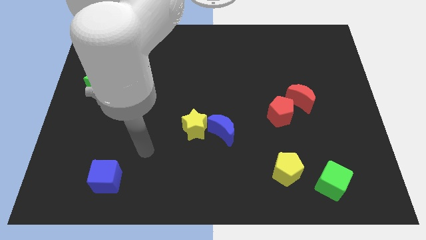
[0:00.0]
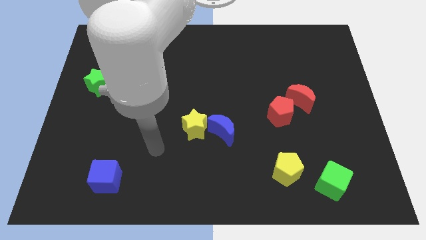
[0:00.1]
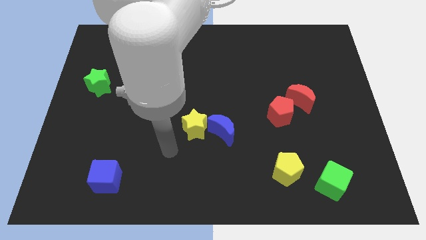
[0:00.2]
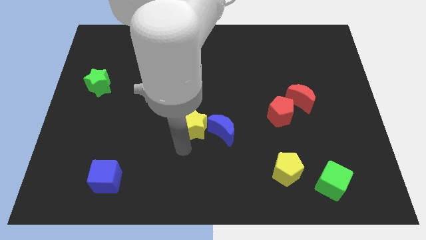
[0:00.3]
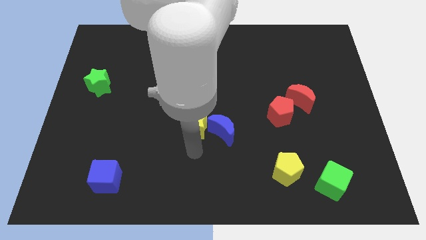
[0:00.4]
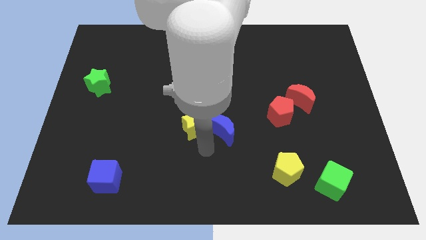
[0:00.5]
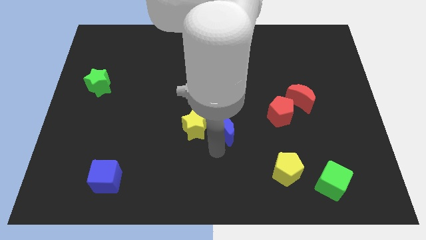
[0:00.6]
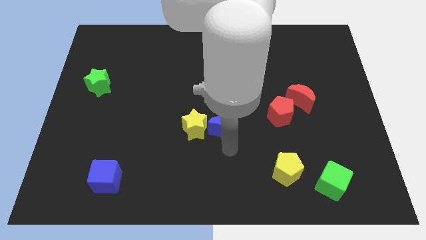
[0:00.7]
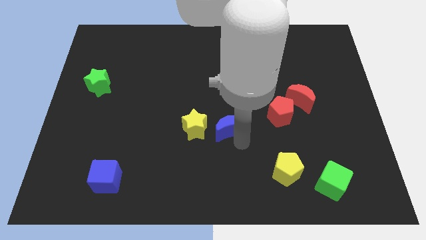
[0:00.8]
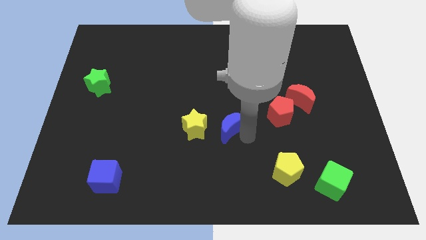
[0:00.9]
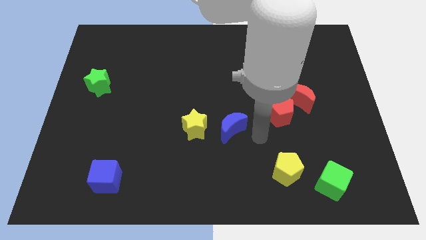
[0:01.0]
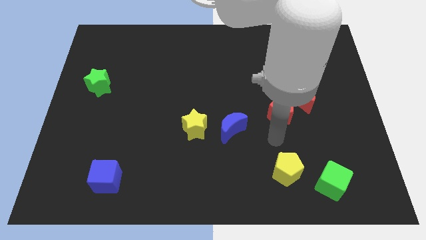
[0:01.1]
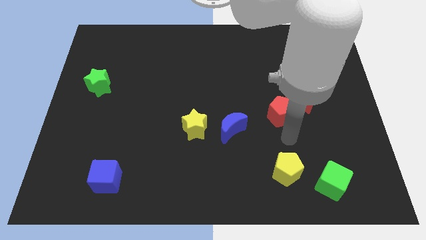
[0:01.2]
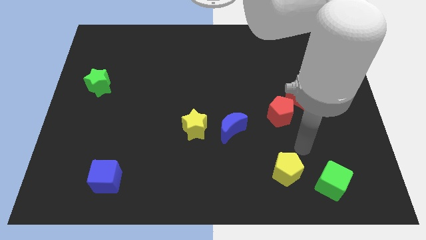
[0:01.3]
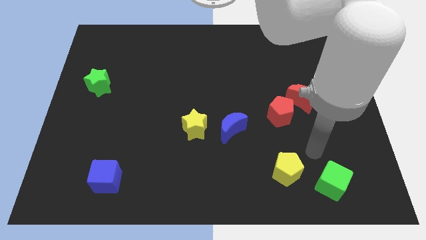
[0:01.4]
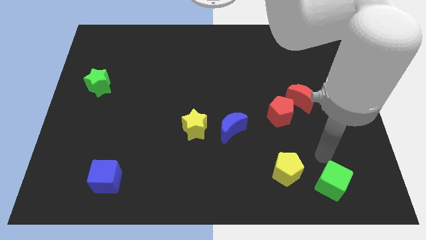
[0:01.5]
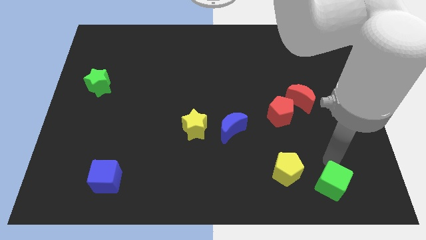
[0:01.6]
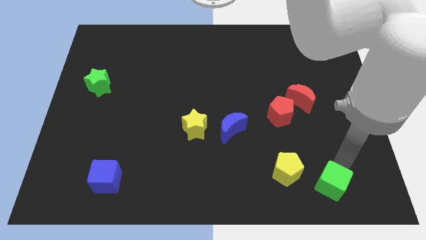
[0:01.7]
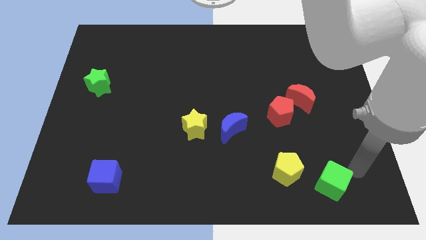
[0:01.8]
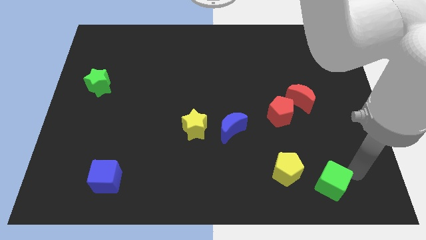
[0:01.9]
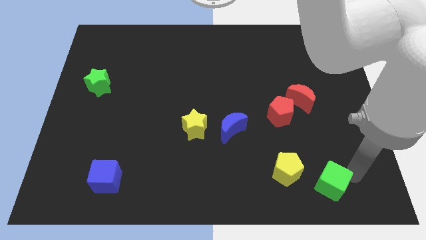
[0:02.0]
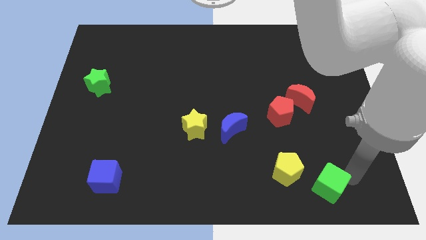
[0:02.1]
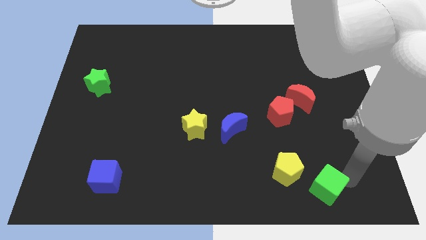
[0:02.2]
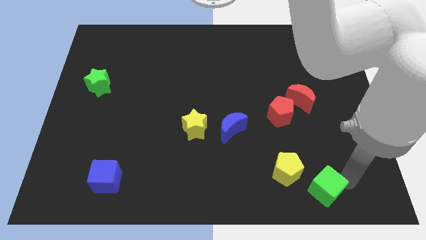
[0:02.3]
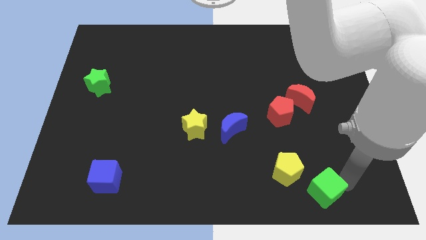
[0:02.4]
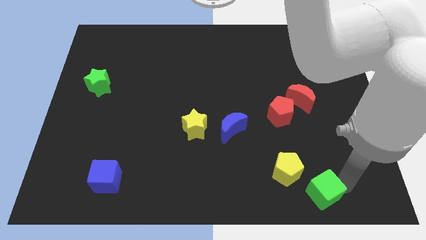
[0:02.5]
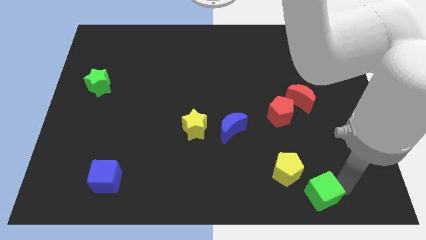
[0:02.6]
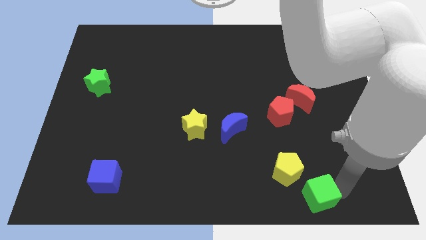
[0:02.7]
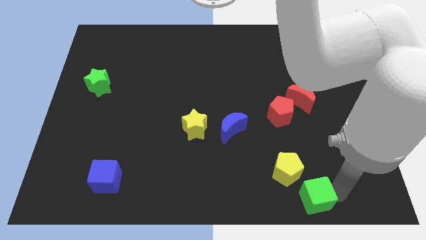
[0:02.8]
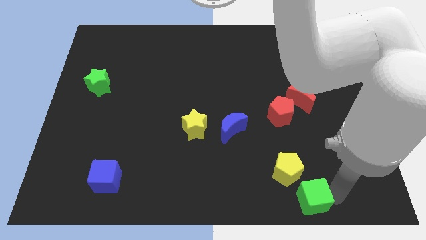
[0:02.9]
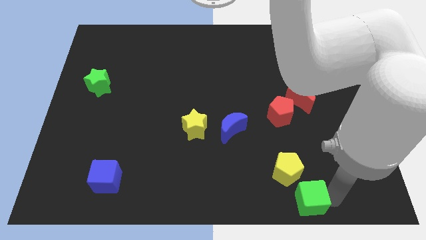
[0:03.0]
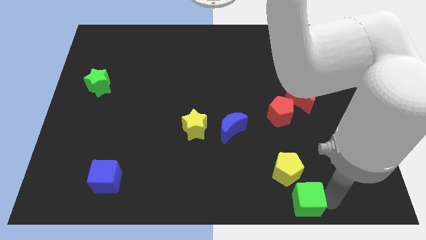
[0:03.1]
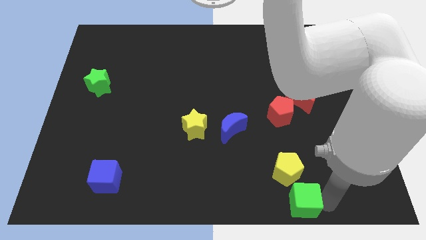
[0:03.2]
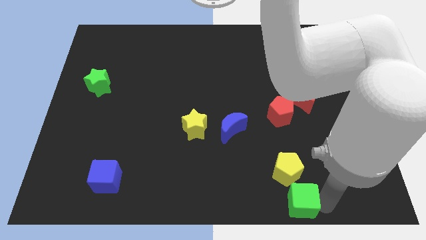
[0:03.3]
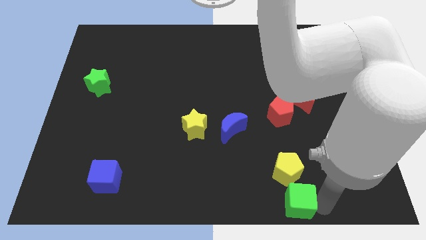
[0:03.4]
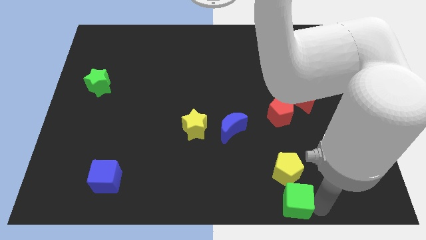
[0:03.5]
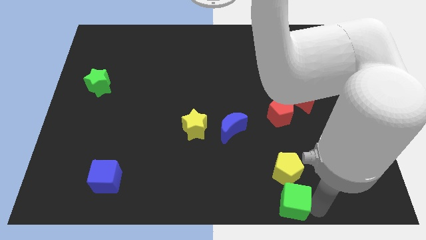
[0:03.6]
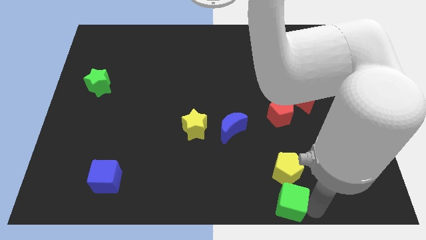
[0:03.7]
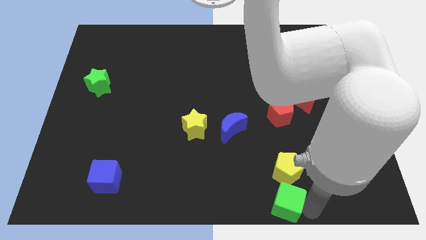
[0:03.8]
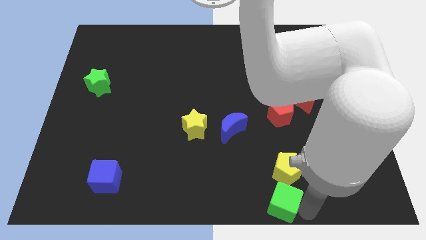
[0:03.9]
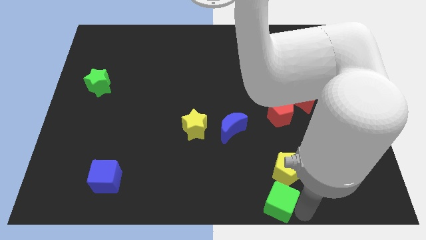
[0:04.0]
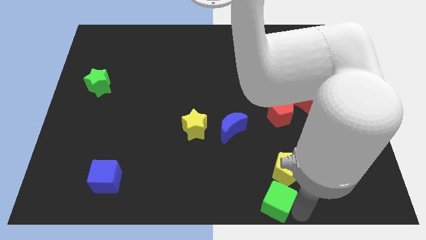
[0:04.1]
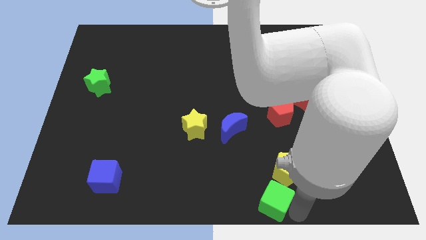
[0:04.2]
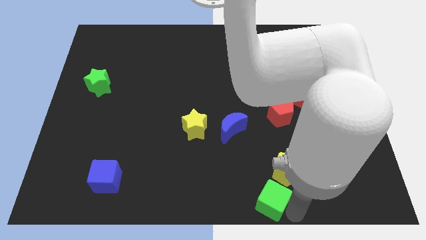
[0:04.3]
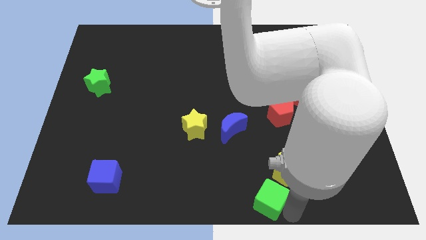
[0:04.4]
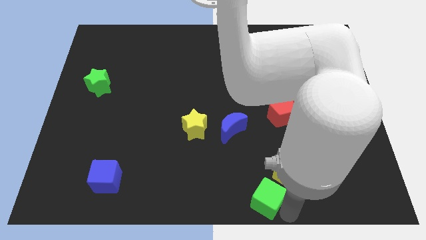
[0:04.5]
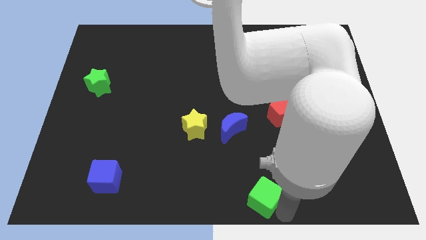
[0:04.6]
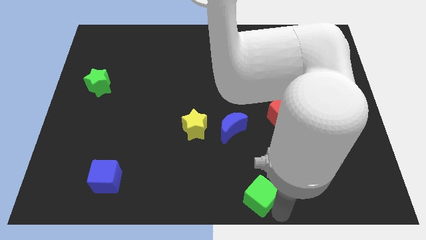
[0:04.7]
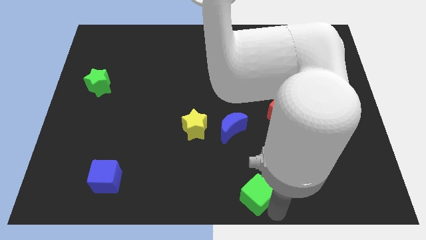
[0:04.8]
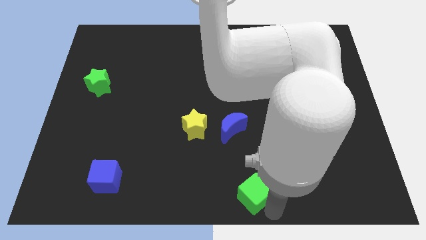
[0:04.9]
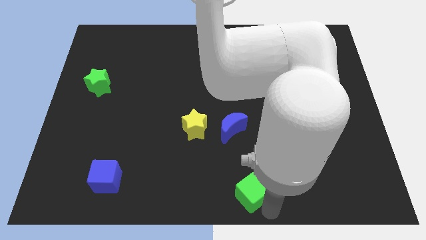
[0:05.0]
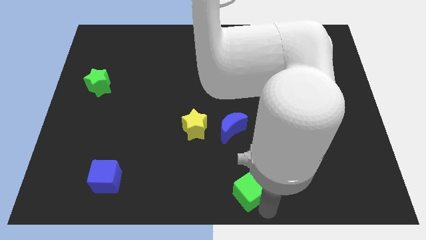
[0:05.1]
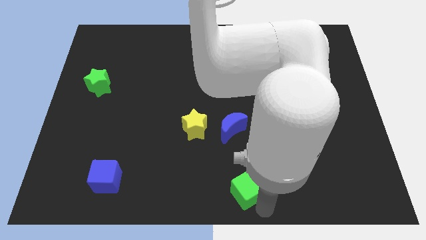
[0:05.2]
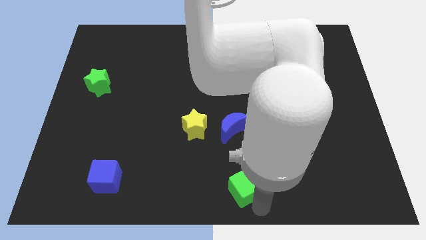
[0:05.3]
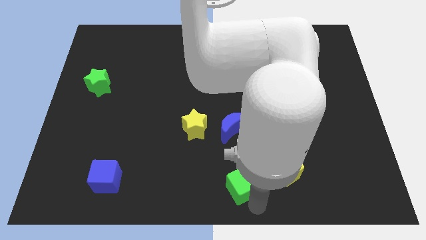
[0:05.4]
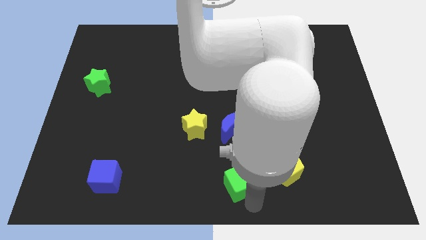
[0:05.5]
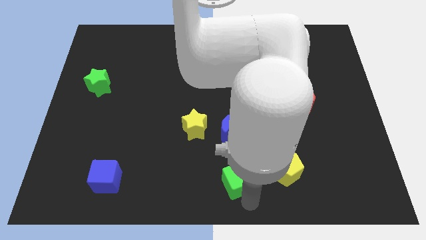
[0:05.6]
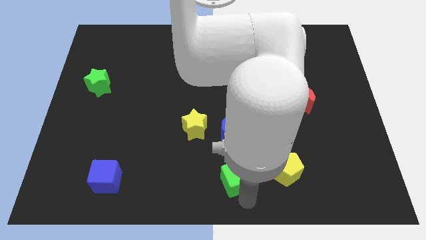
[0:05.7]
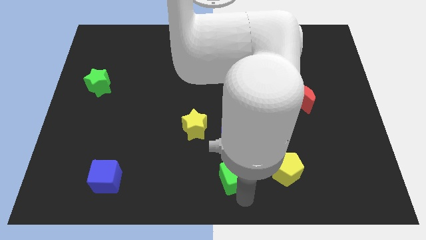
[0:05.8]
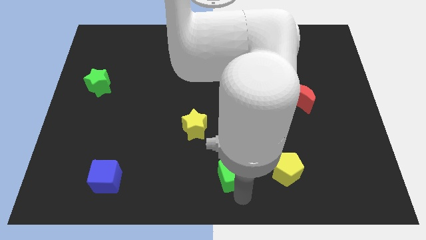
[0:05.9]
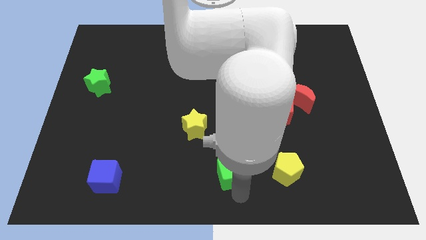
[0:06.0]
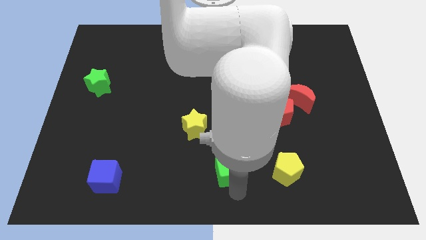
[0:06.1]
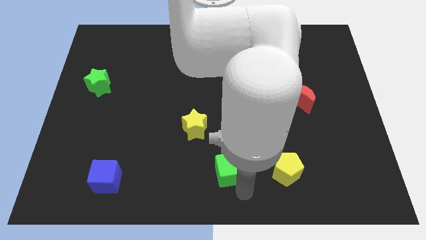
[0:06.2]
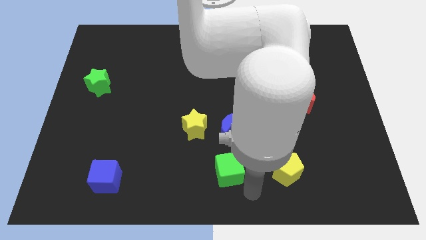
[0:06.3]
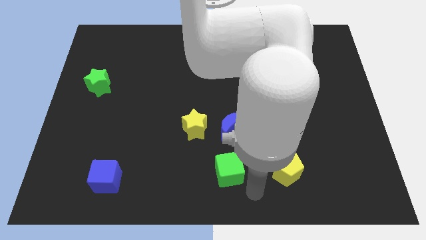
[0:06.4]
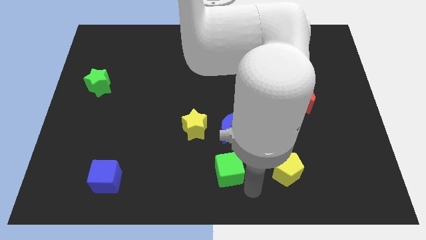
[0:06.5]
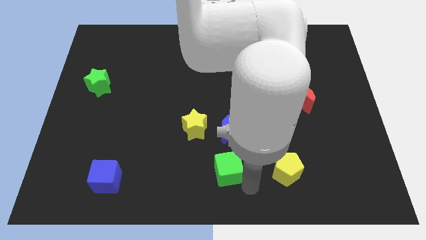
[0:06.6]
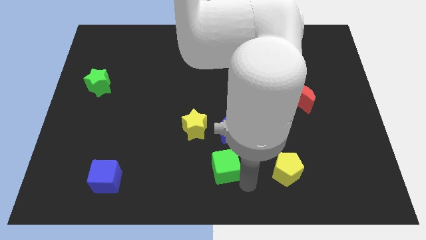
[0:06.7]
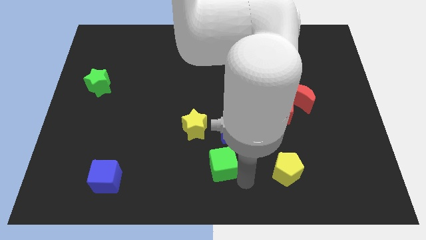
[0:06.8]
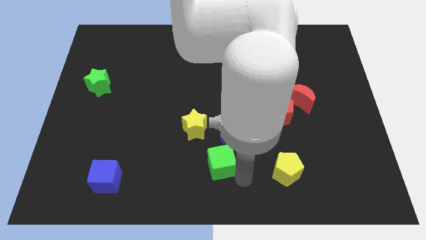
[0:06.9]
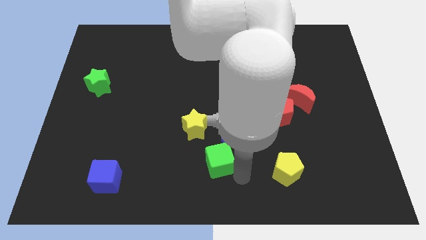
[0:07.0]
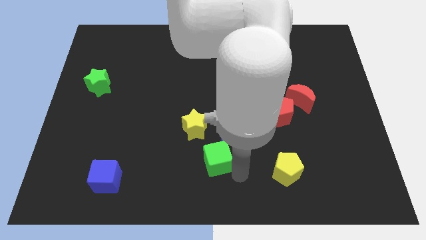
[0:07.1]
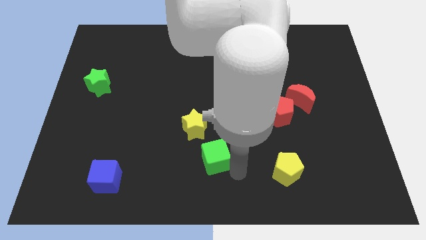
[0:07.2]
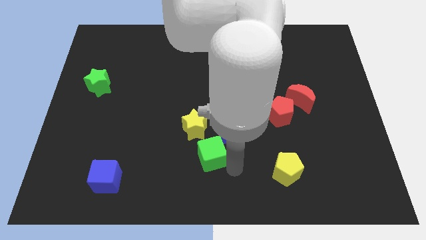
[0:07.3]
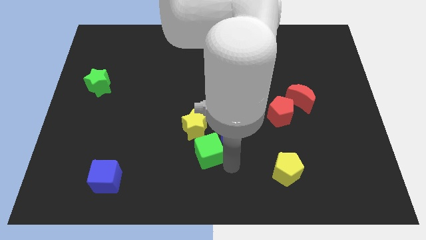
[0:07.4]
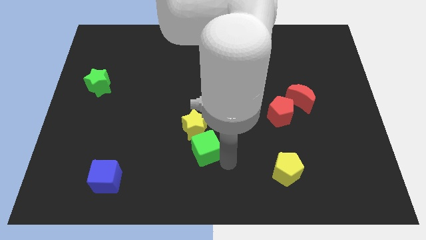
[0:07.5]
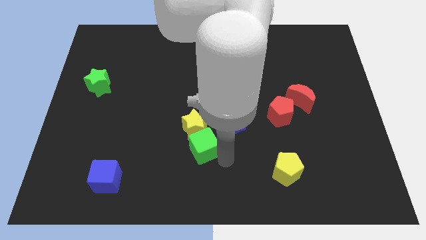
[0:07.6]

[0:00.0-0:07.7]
move the green cube to the left side of the blue moon
